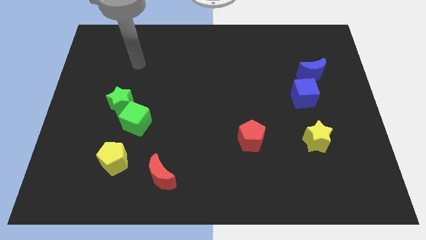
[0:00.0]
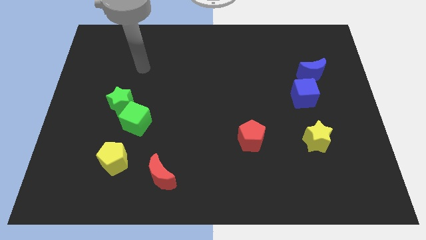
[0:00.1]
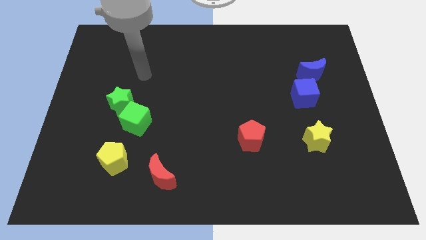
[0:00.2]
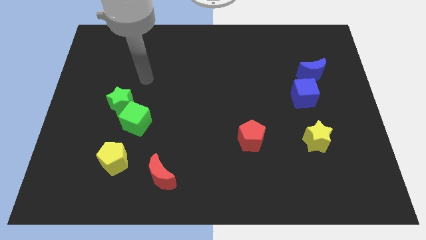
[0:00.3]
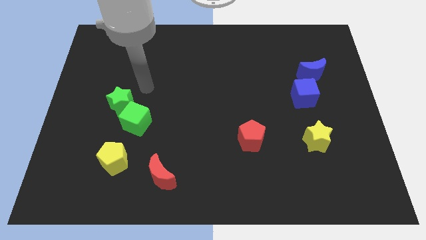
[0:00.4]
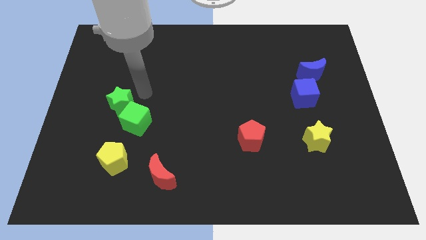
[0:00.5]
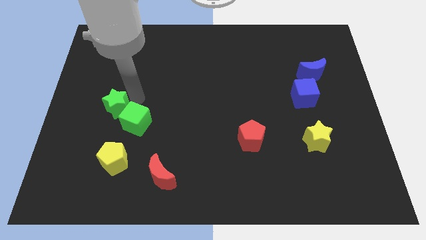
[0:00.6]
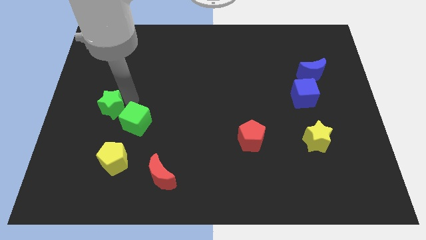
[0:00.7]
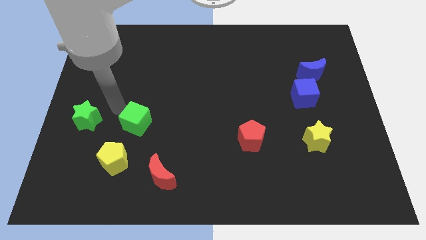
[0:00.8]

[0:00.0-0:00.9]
pull the green cube apart from the green star

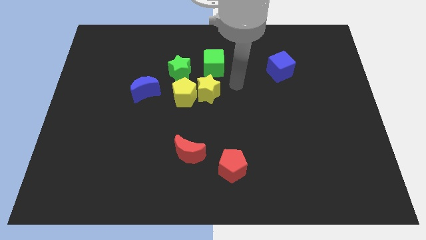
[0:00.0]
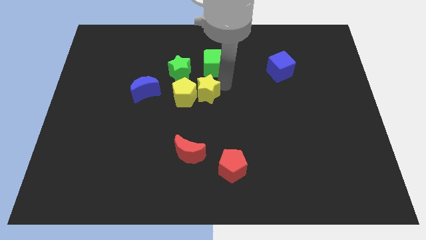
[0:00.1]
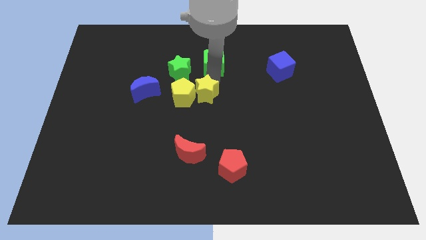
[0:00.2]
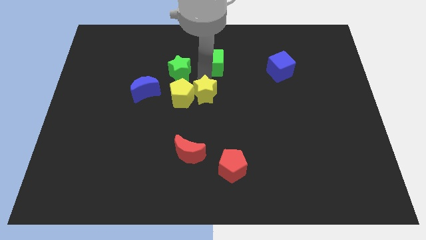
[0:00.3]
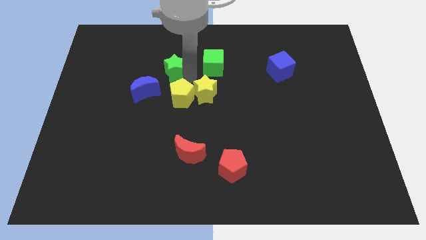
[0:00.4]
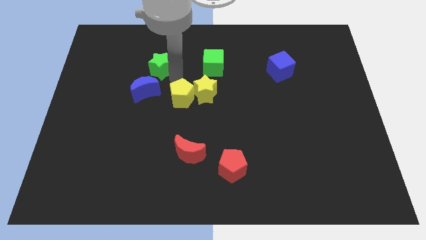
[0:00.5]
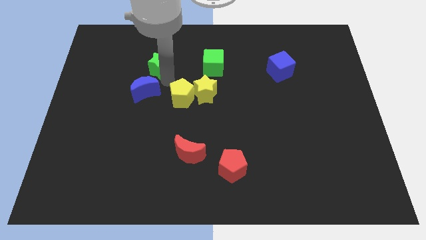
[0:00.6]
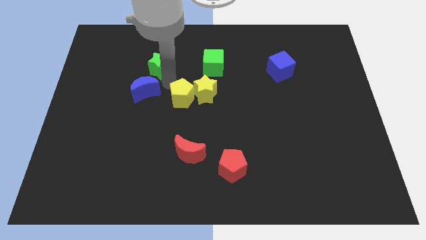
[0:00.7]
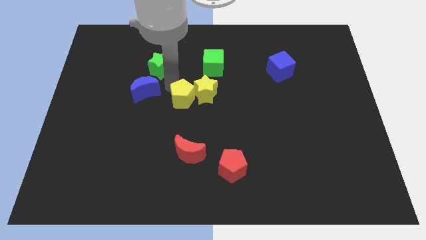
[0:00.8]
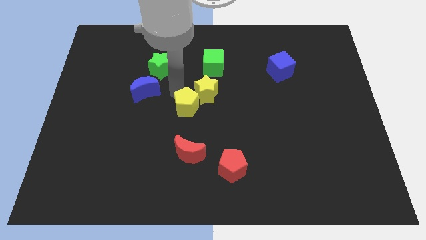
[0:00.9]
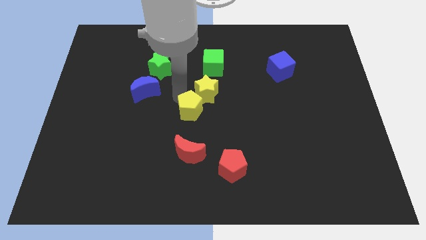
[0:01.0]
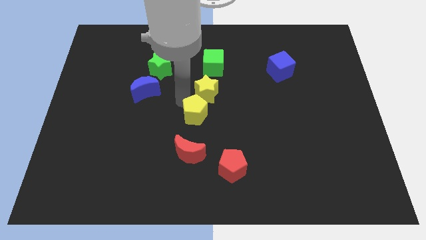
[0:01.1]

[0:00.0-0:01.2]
separate the yellow pentagon from the yellow star, green star, and blue moon

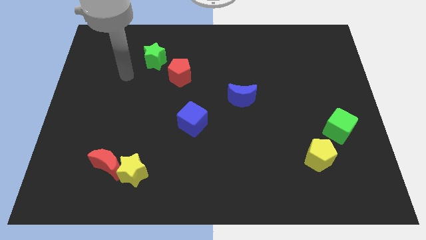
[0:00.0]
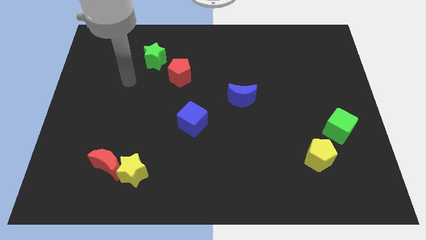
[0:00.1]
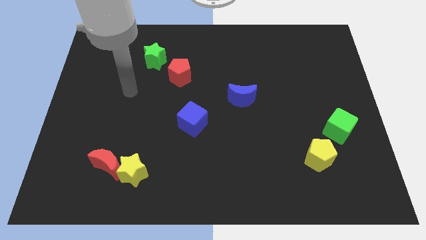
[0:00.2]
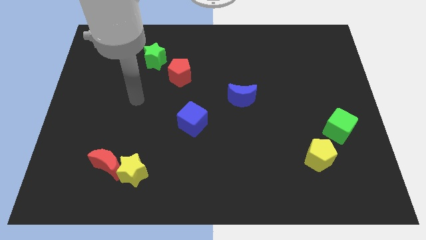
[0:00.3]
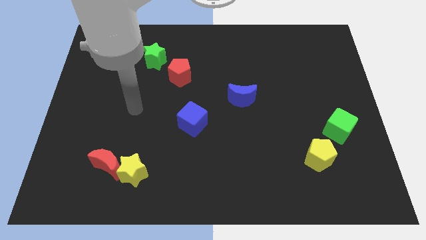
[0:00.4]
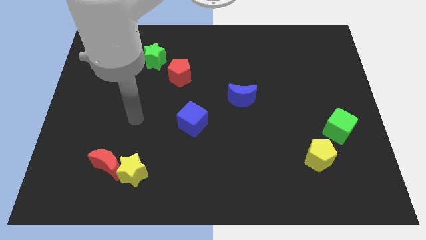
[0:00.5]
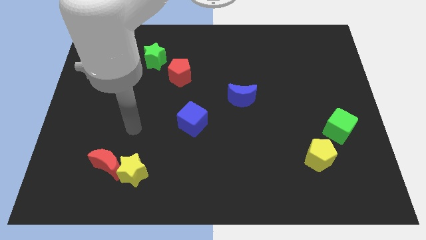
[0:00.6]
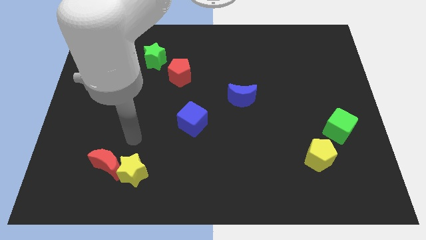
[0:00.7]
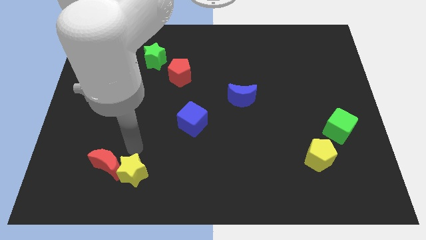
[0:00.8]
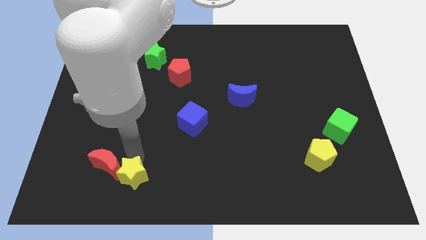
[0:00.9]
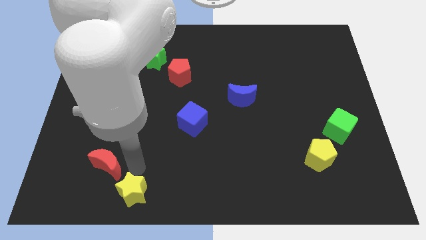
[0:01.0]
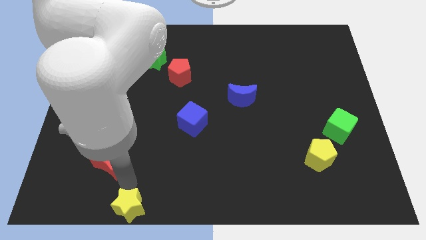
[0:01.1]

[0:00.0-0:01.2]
move the red moon away from the yellow star

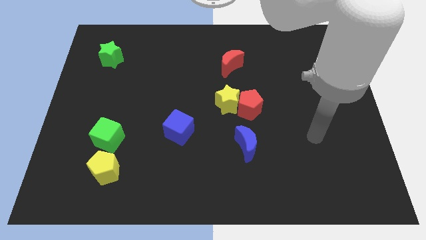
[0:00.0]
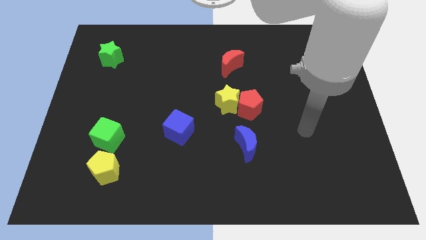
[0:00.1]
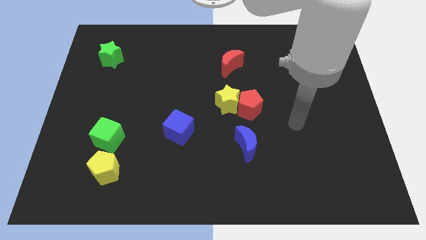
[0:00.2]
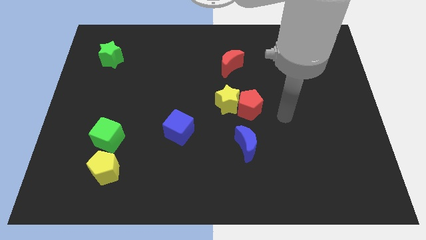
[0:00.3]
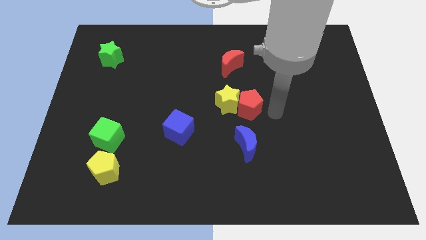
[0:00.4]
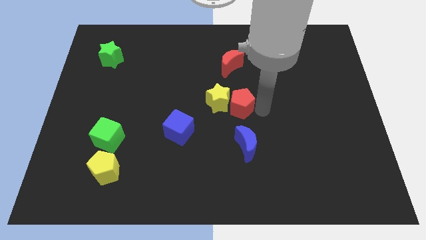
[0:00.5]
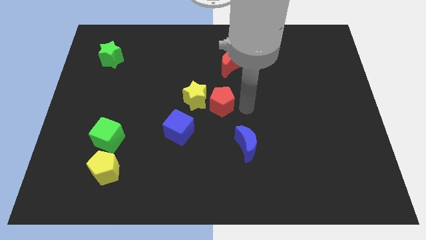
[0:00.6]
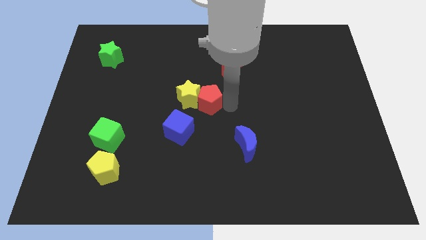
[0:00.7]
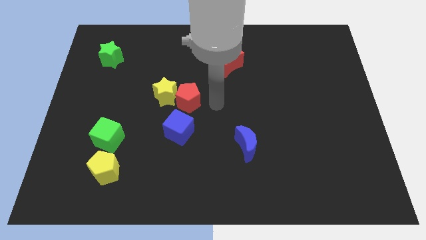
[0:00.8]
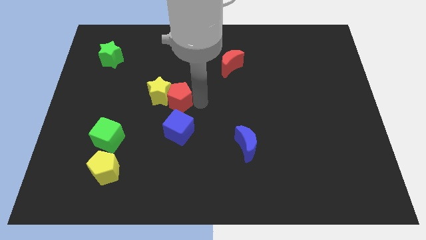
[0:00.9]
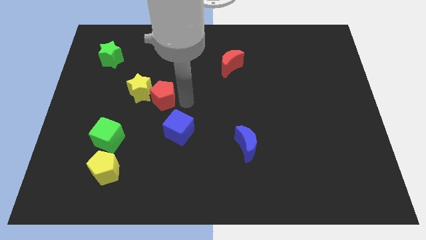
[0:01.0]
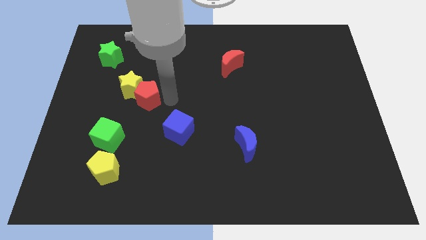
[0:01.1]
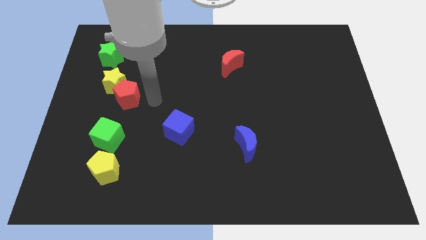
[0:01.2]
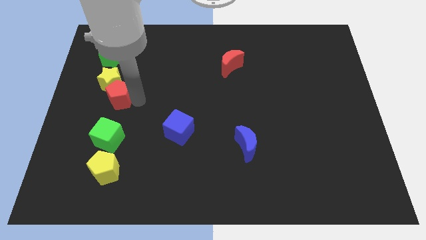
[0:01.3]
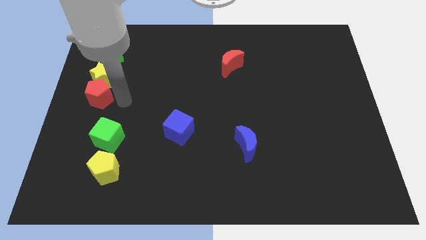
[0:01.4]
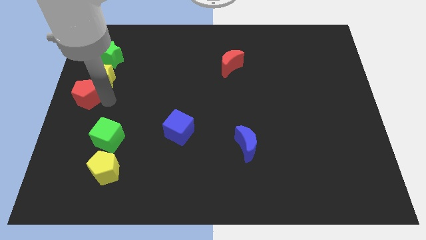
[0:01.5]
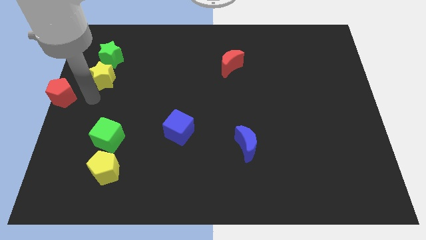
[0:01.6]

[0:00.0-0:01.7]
move the yellow star away from the red pentagon

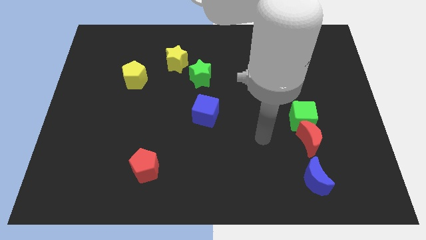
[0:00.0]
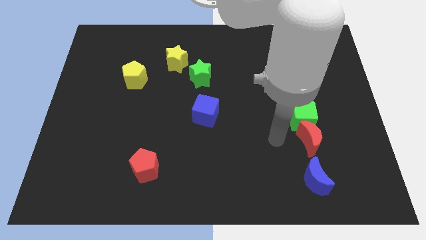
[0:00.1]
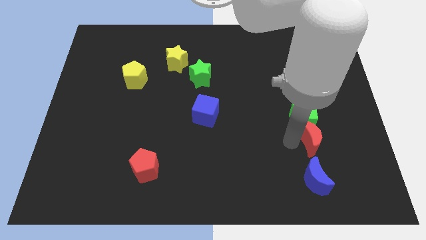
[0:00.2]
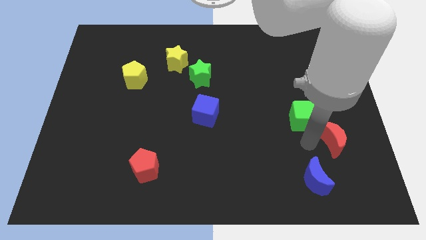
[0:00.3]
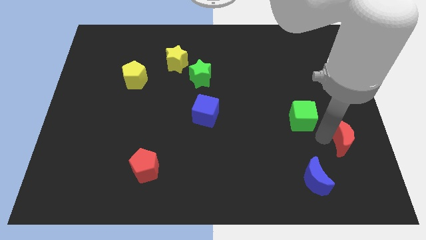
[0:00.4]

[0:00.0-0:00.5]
move the green cube away from the red moon

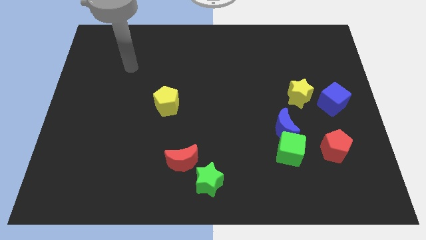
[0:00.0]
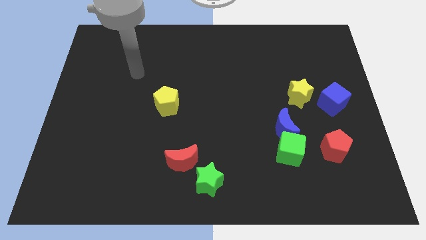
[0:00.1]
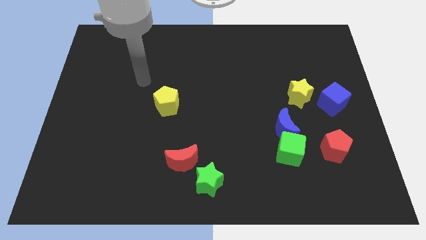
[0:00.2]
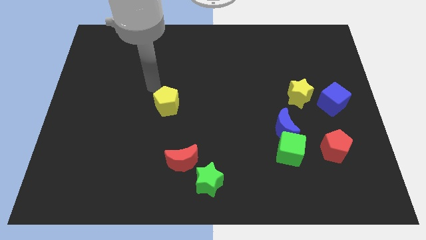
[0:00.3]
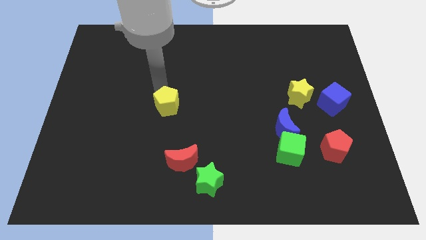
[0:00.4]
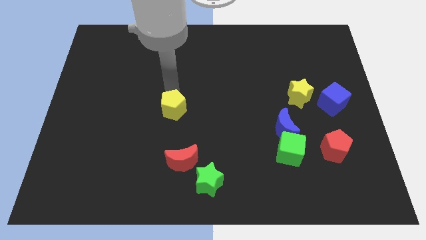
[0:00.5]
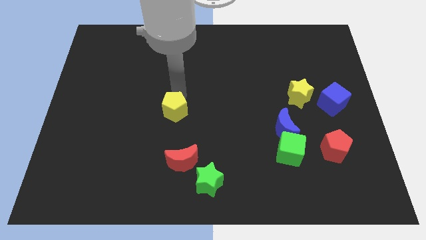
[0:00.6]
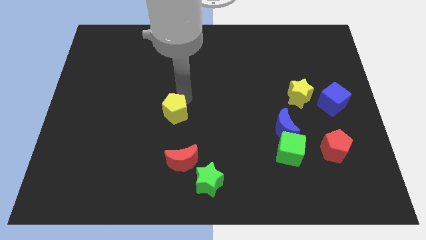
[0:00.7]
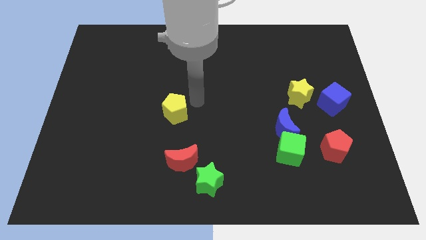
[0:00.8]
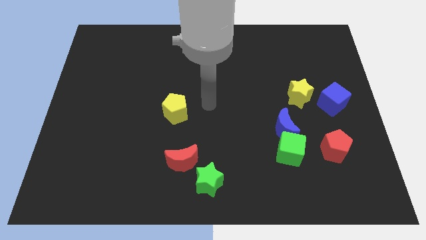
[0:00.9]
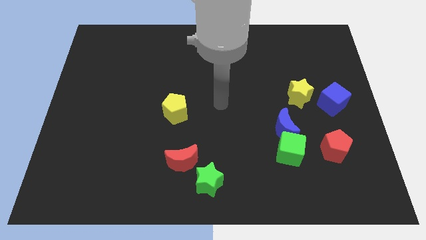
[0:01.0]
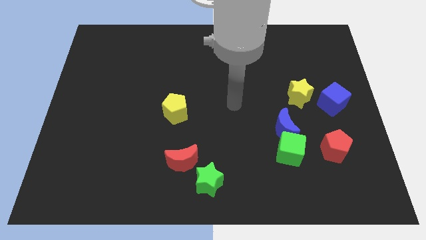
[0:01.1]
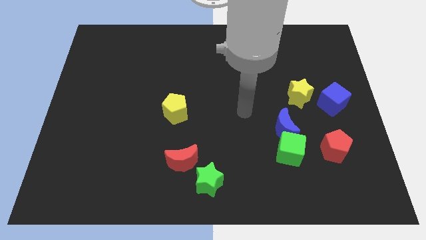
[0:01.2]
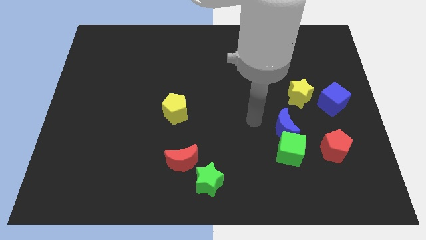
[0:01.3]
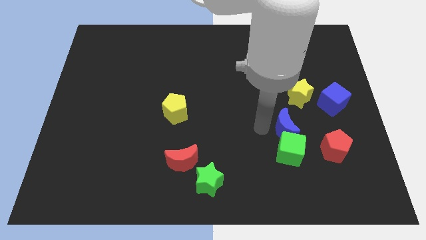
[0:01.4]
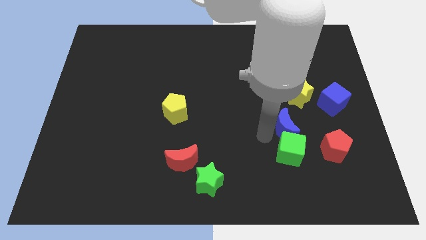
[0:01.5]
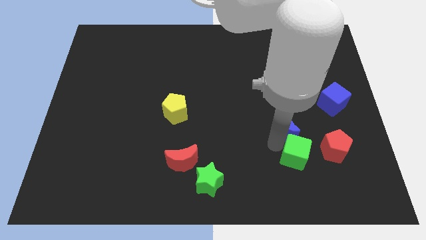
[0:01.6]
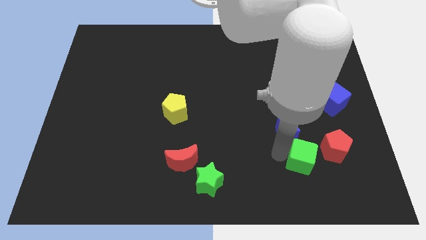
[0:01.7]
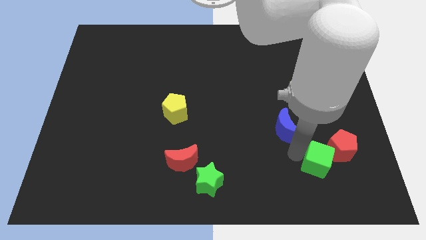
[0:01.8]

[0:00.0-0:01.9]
separate the blue moon from the green cube

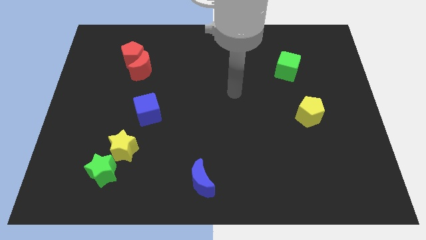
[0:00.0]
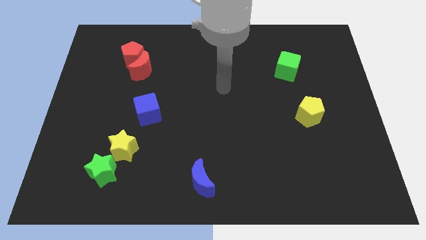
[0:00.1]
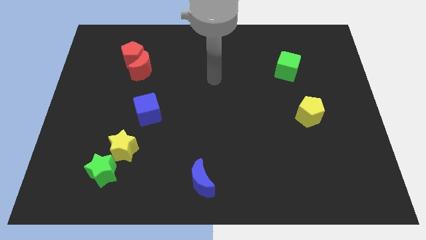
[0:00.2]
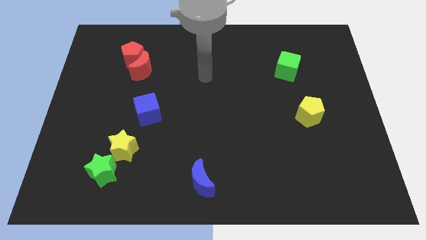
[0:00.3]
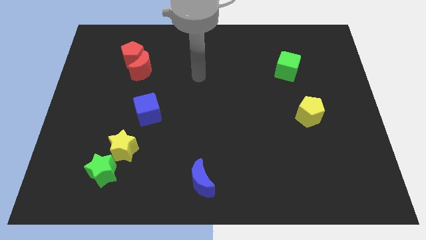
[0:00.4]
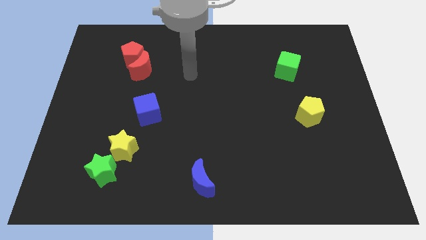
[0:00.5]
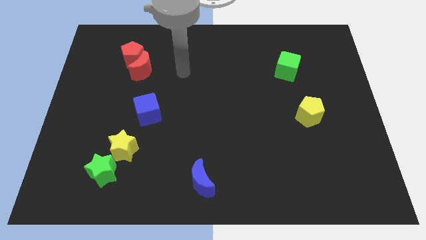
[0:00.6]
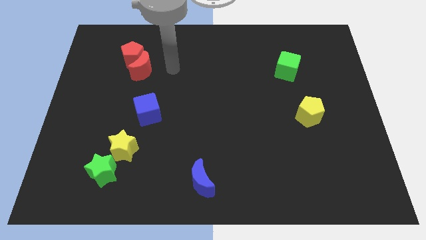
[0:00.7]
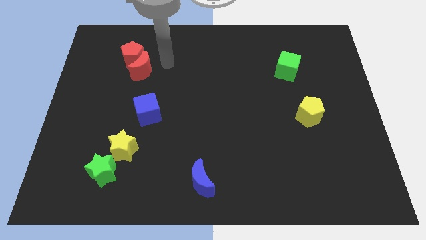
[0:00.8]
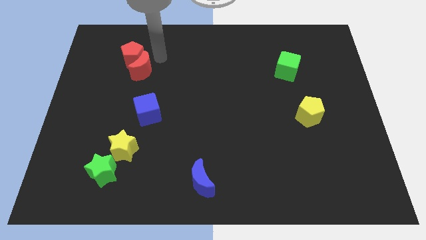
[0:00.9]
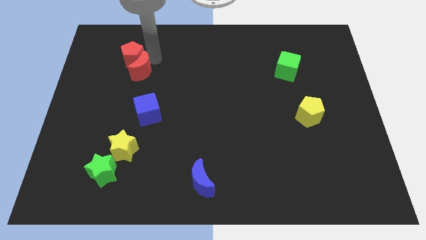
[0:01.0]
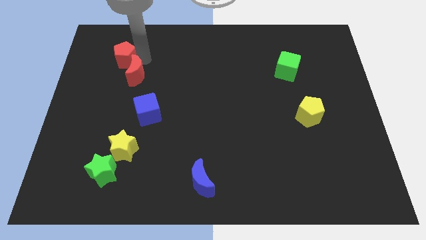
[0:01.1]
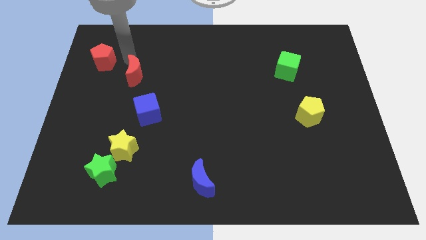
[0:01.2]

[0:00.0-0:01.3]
move the red moon away from the red pentagon

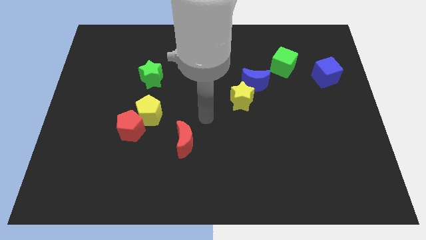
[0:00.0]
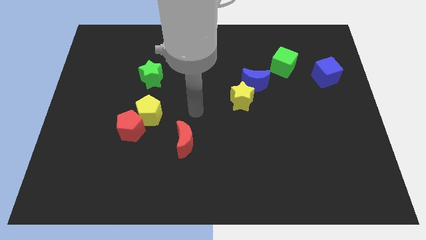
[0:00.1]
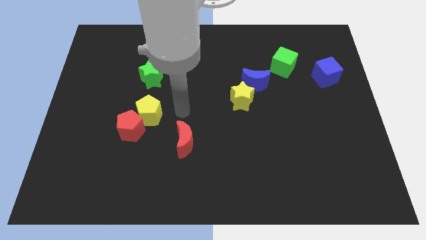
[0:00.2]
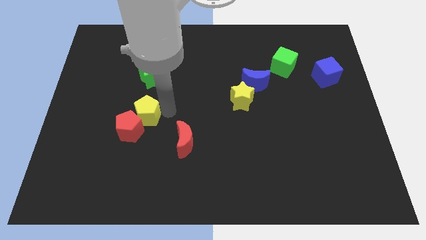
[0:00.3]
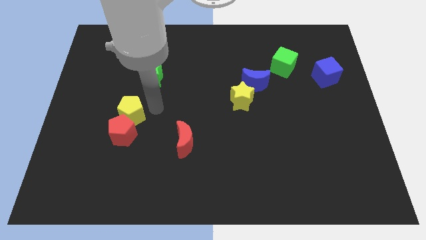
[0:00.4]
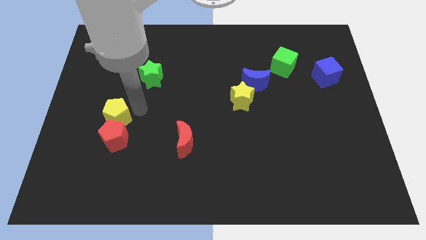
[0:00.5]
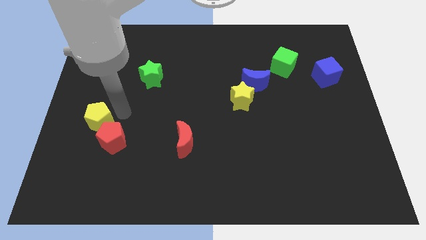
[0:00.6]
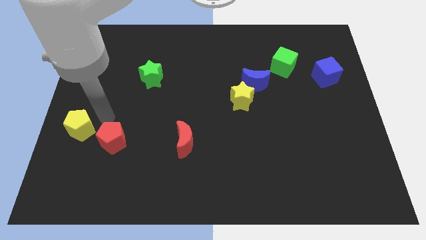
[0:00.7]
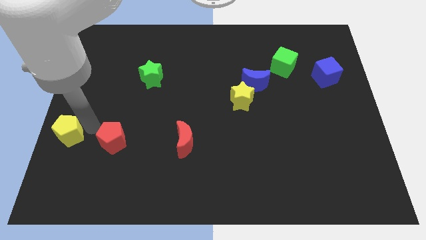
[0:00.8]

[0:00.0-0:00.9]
move the red pentagon away from the yellow pentagon
